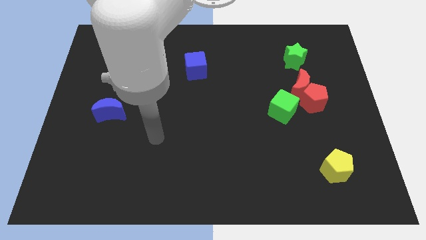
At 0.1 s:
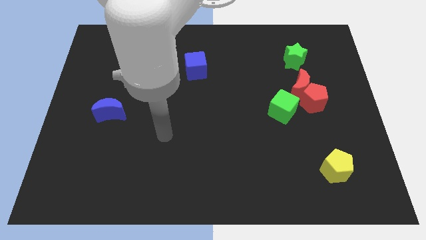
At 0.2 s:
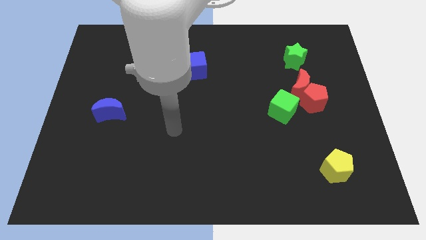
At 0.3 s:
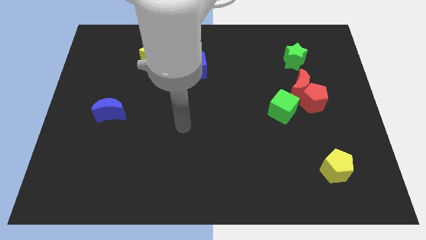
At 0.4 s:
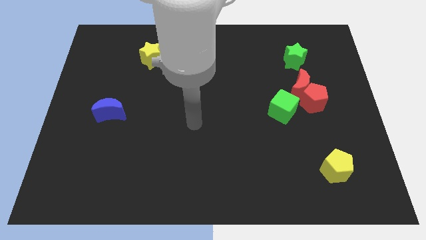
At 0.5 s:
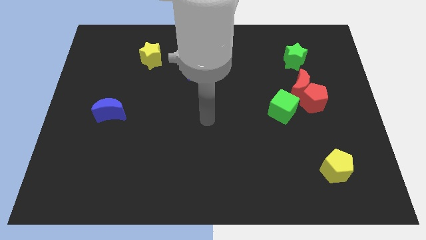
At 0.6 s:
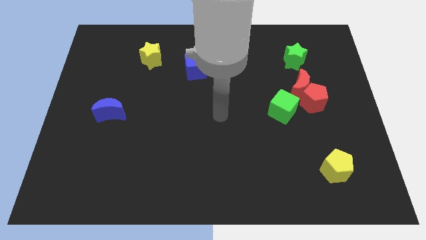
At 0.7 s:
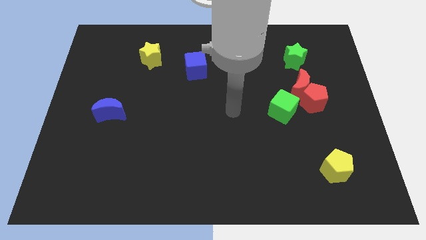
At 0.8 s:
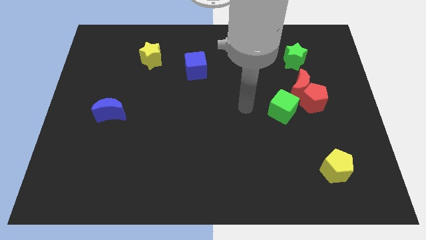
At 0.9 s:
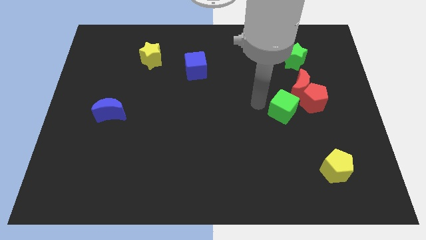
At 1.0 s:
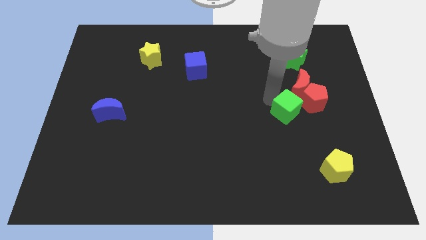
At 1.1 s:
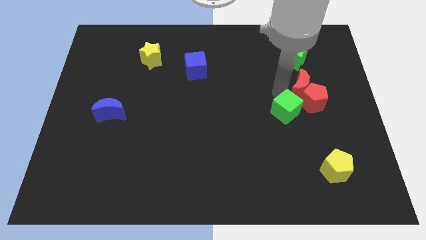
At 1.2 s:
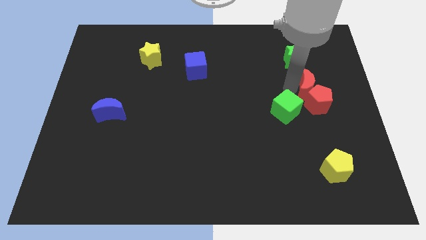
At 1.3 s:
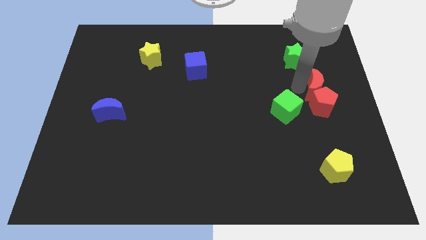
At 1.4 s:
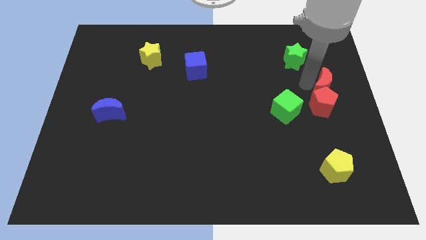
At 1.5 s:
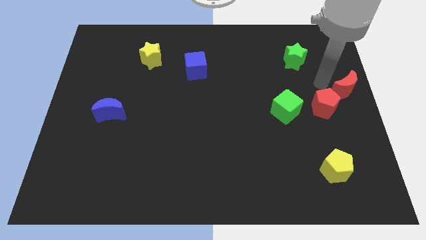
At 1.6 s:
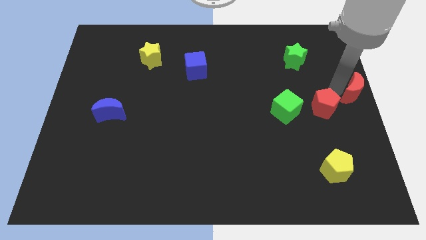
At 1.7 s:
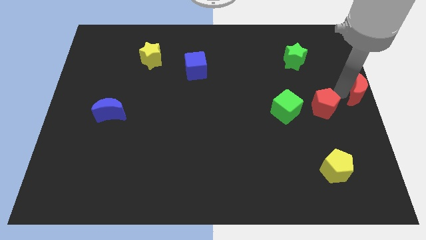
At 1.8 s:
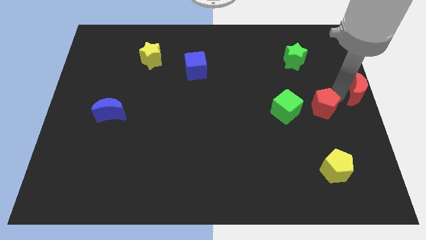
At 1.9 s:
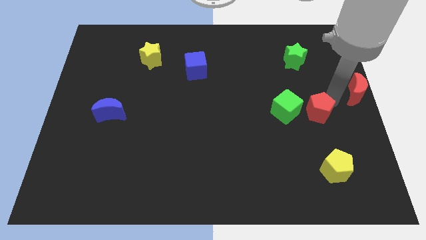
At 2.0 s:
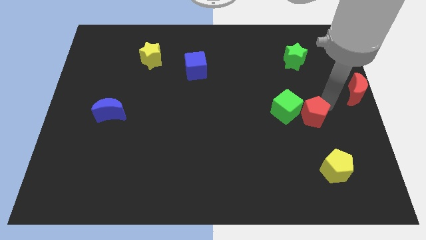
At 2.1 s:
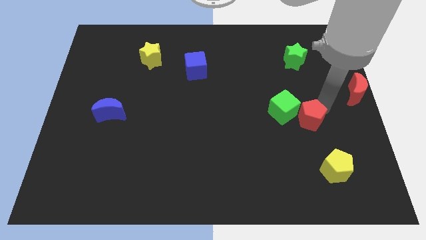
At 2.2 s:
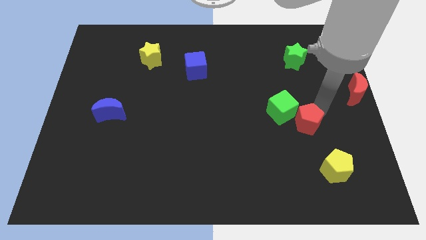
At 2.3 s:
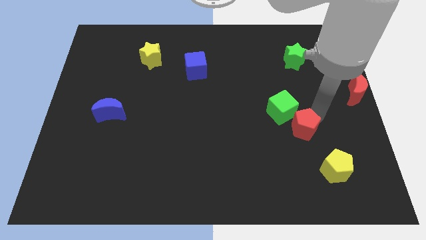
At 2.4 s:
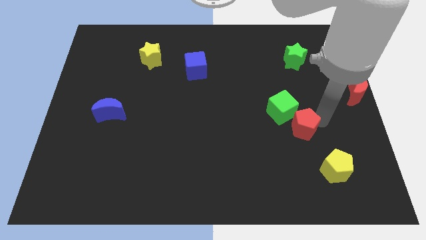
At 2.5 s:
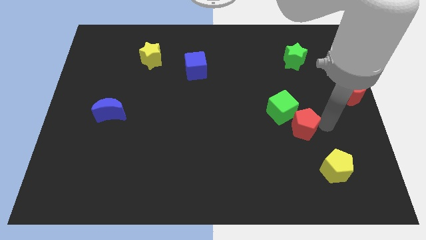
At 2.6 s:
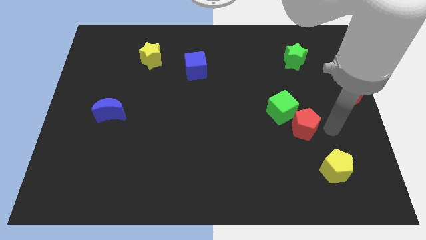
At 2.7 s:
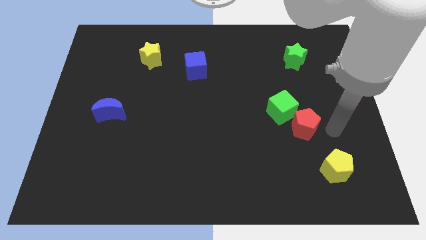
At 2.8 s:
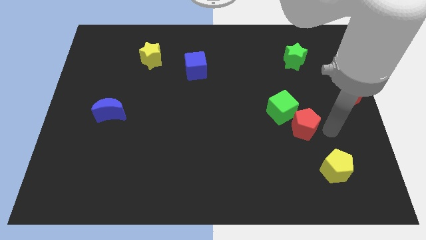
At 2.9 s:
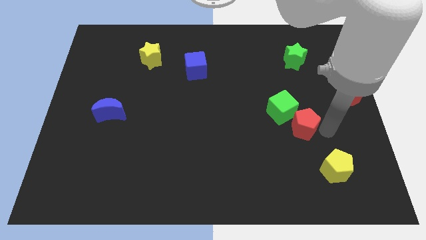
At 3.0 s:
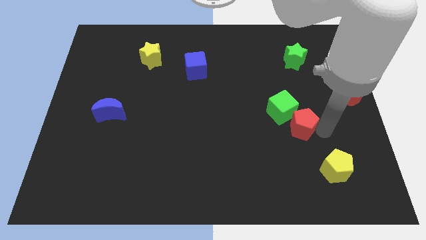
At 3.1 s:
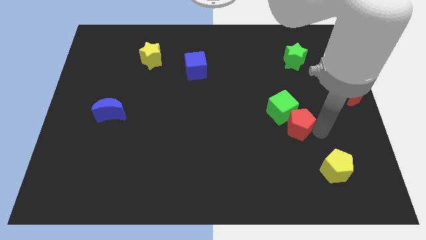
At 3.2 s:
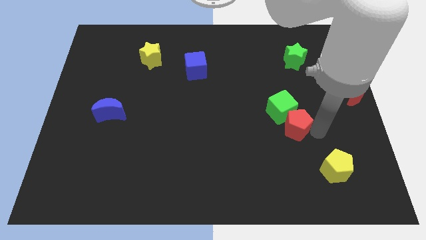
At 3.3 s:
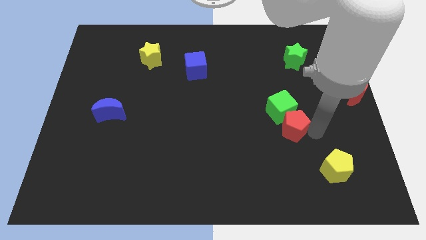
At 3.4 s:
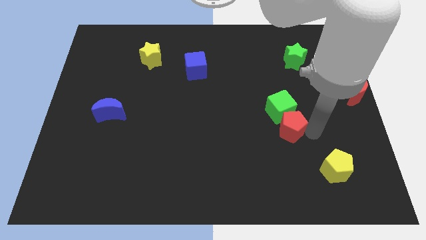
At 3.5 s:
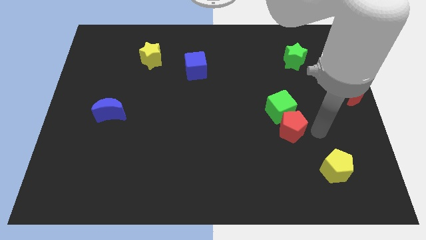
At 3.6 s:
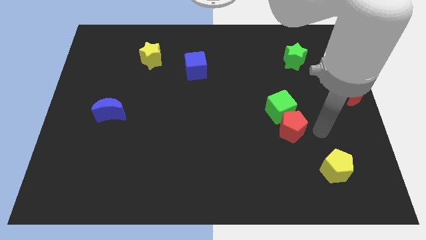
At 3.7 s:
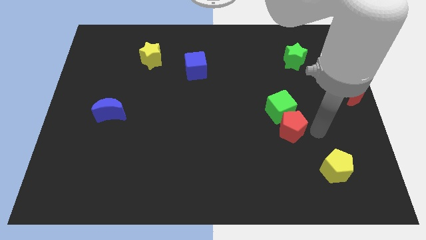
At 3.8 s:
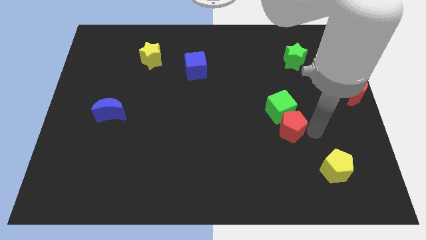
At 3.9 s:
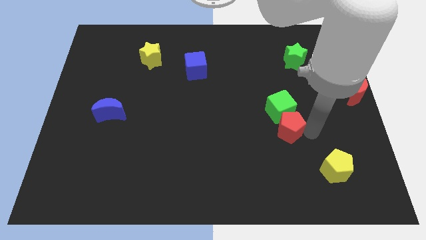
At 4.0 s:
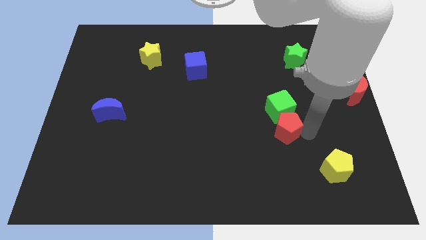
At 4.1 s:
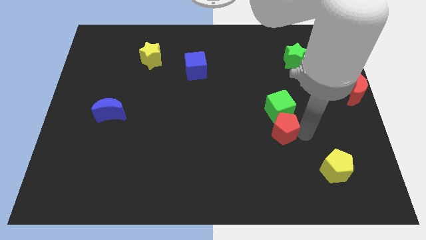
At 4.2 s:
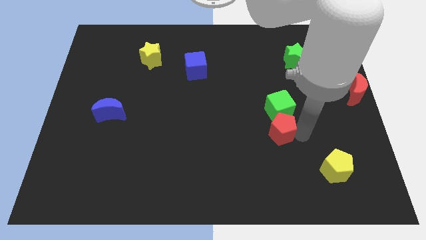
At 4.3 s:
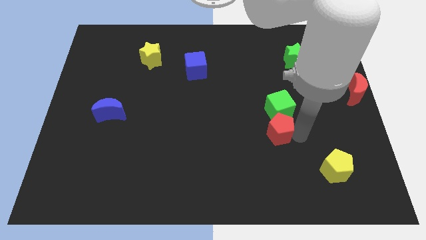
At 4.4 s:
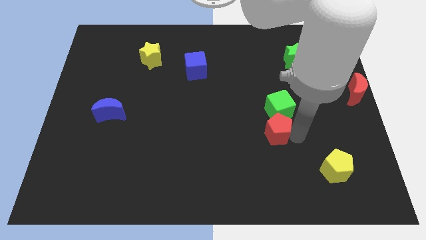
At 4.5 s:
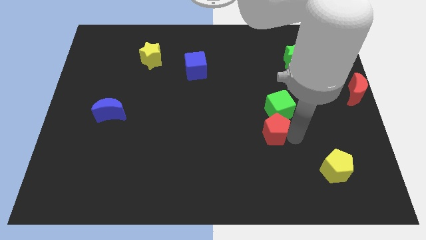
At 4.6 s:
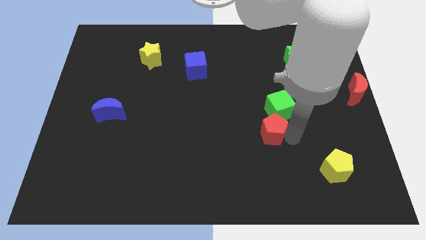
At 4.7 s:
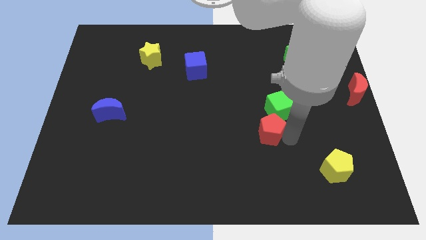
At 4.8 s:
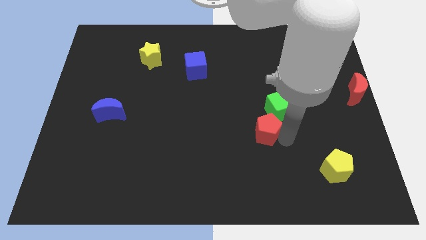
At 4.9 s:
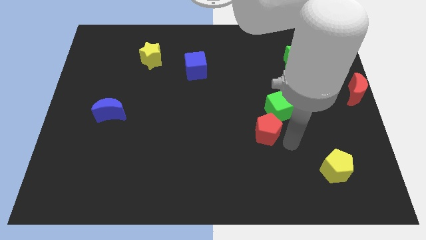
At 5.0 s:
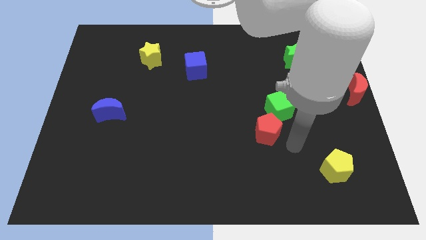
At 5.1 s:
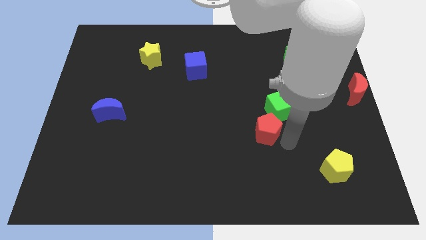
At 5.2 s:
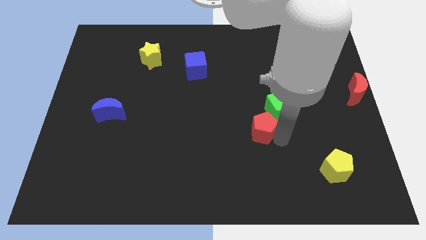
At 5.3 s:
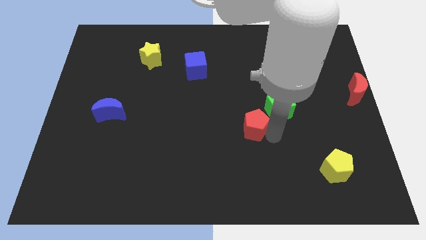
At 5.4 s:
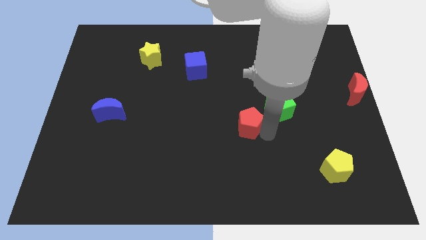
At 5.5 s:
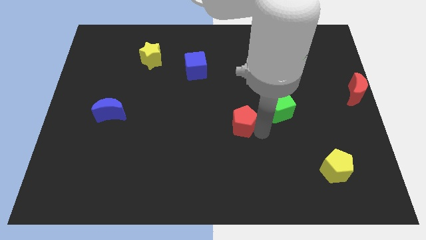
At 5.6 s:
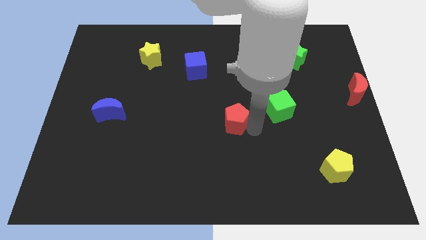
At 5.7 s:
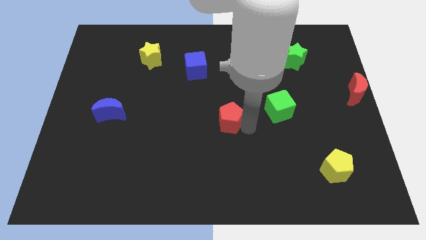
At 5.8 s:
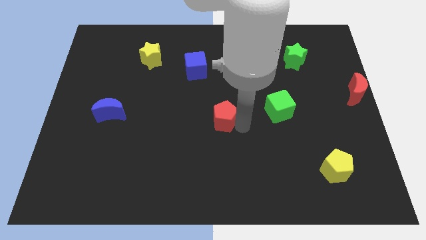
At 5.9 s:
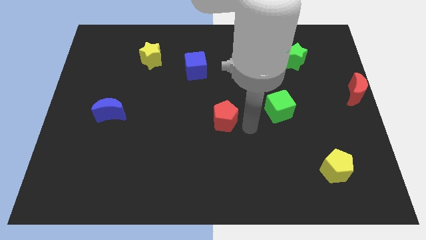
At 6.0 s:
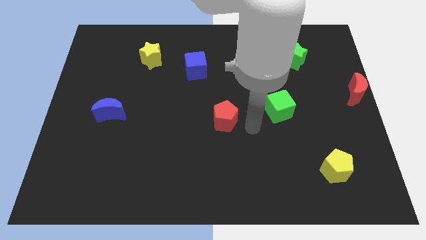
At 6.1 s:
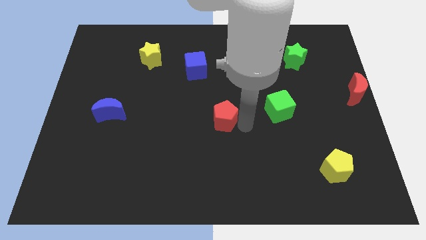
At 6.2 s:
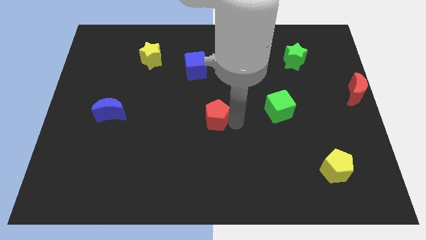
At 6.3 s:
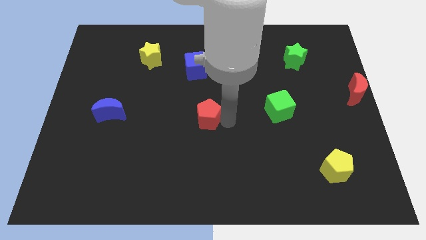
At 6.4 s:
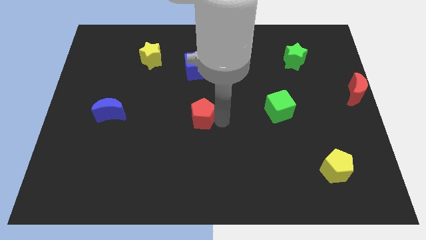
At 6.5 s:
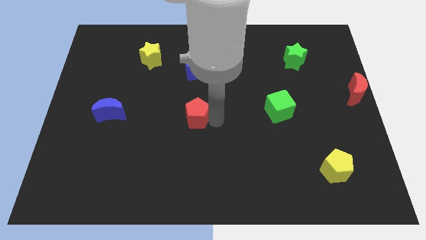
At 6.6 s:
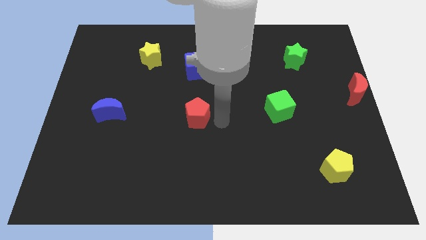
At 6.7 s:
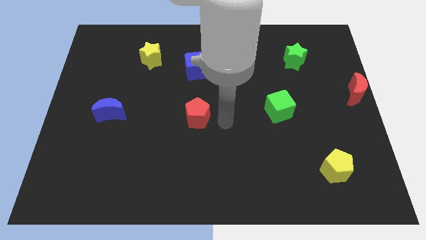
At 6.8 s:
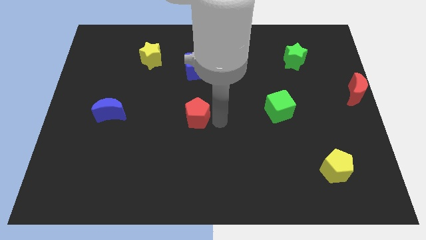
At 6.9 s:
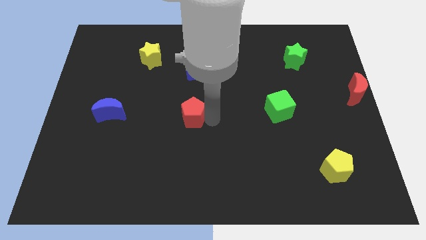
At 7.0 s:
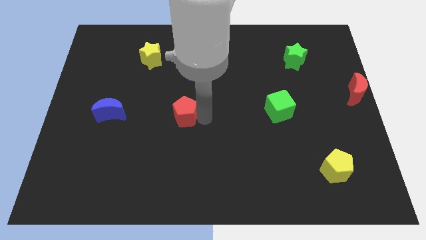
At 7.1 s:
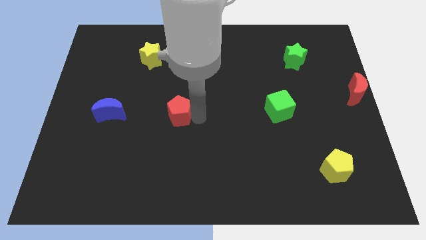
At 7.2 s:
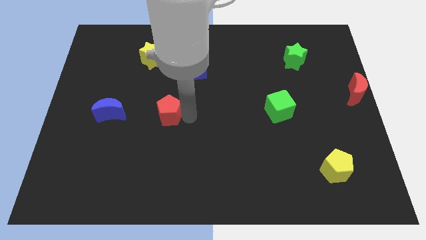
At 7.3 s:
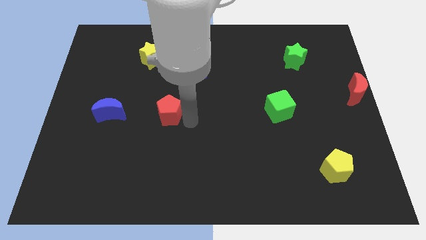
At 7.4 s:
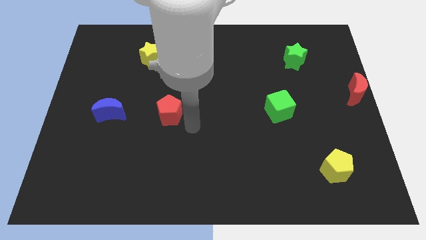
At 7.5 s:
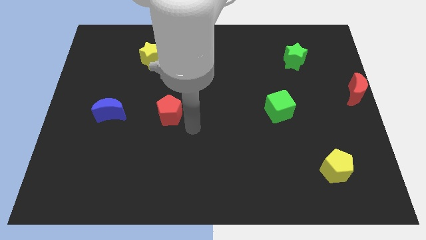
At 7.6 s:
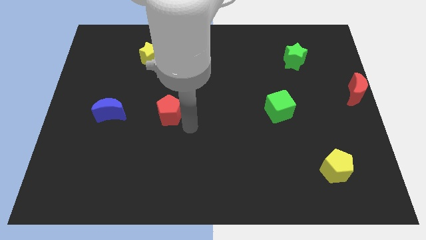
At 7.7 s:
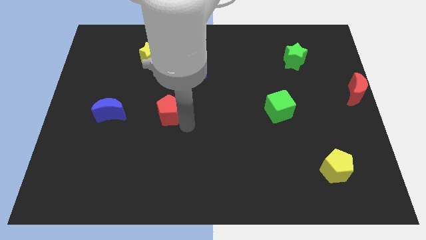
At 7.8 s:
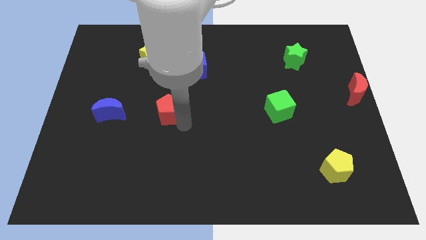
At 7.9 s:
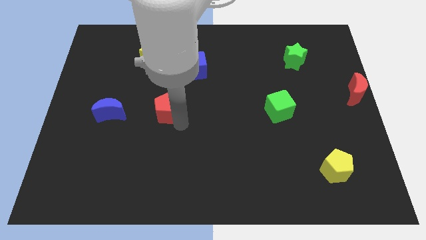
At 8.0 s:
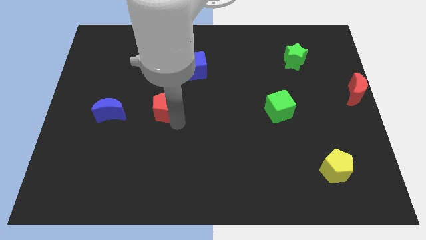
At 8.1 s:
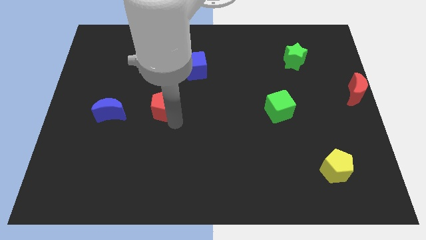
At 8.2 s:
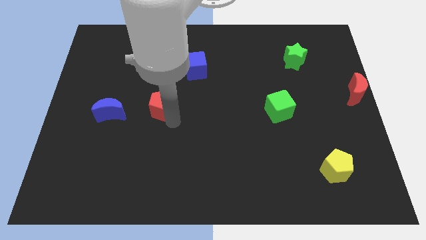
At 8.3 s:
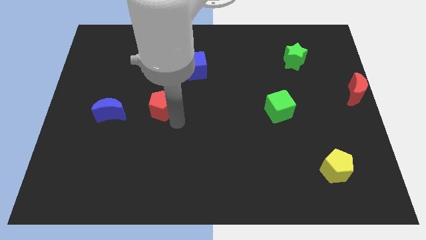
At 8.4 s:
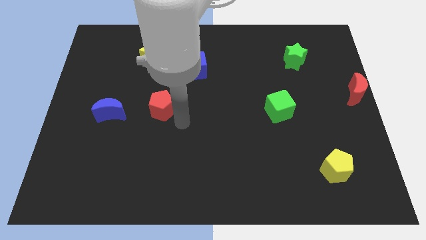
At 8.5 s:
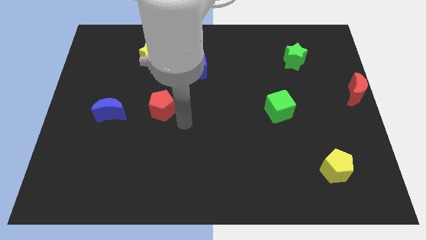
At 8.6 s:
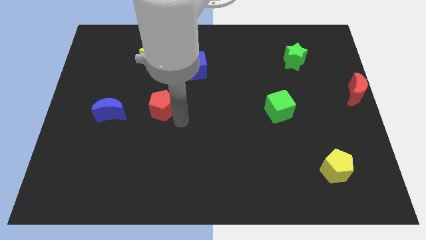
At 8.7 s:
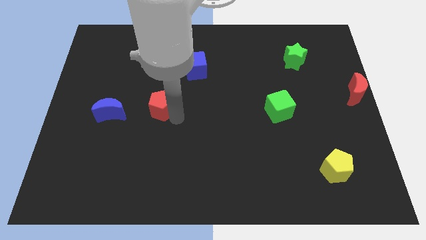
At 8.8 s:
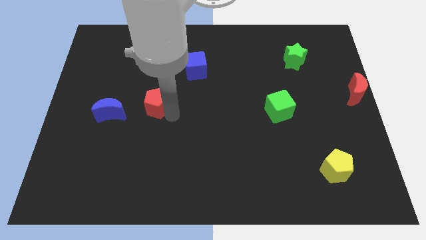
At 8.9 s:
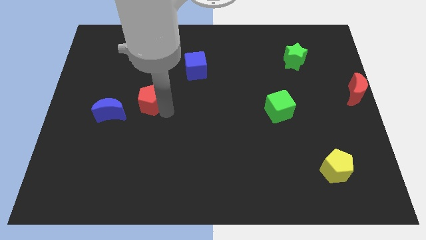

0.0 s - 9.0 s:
move the red pentagon to the top right side of the blue moon
